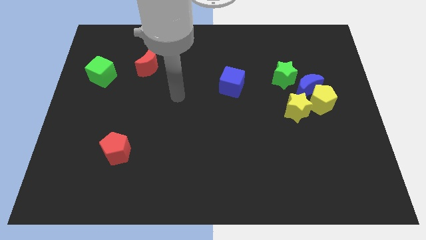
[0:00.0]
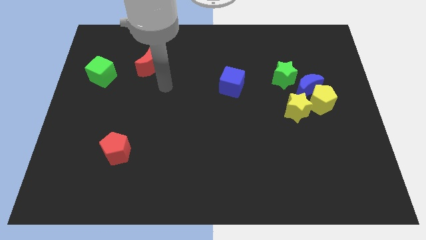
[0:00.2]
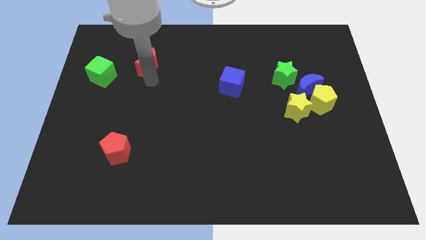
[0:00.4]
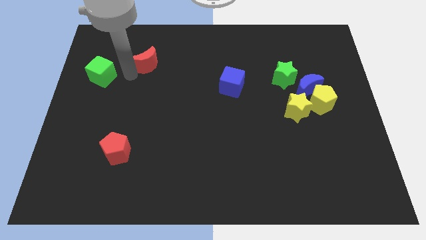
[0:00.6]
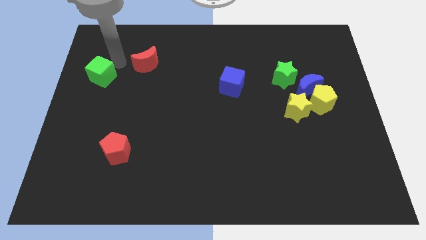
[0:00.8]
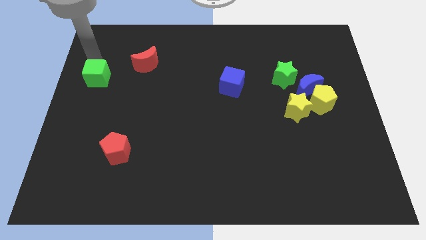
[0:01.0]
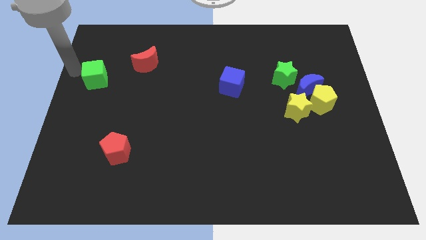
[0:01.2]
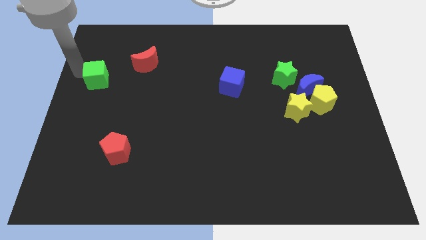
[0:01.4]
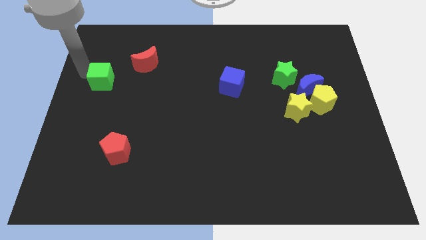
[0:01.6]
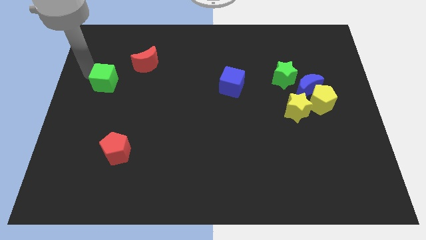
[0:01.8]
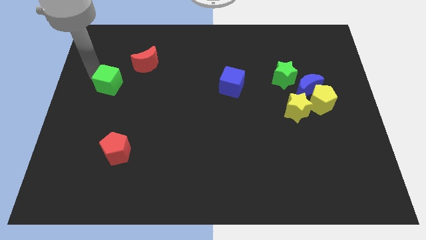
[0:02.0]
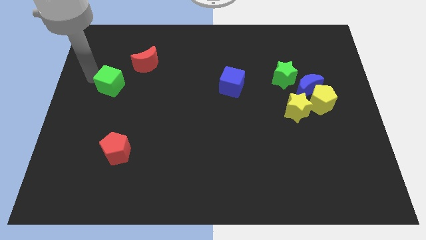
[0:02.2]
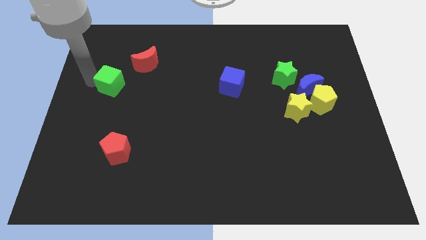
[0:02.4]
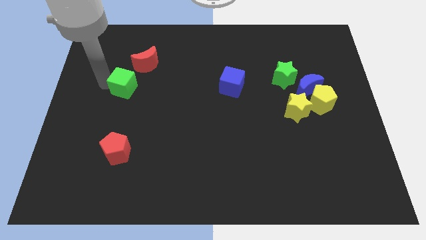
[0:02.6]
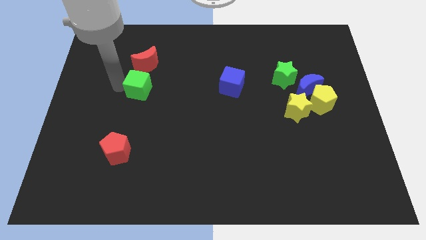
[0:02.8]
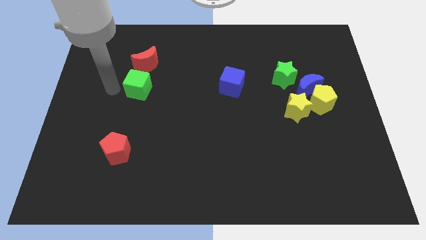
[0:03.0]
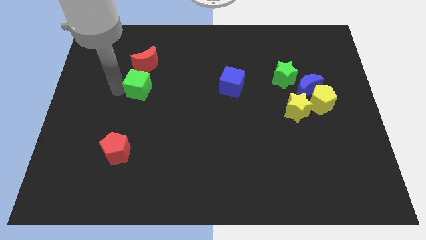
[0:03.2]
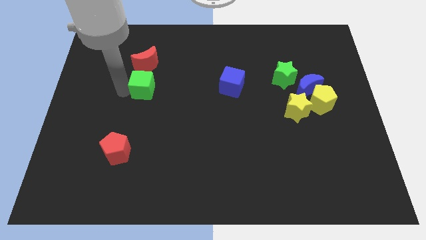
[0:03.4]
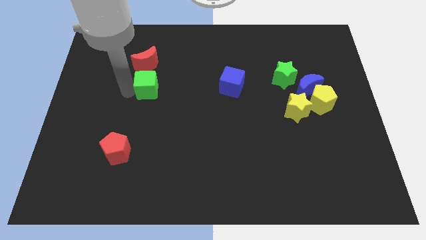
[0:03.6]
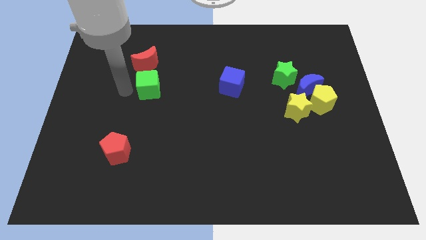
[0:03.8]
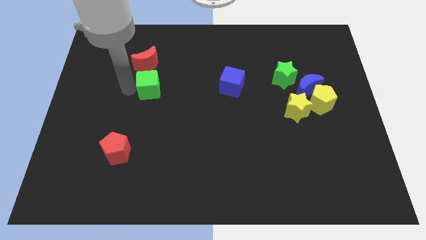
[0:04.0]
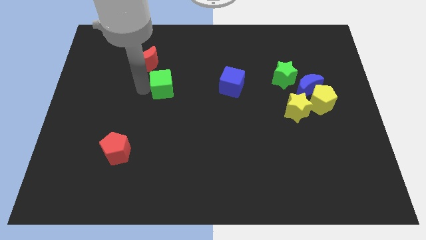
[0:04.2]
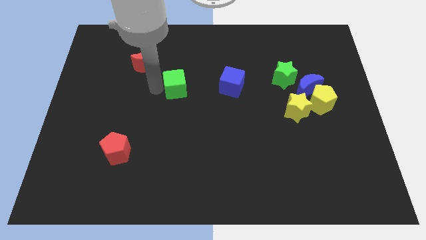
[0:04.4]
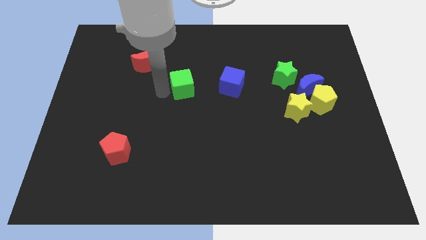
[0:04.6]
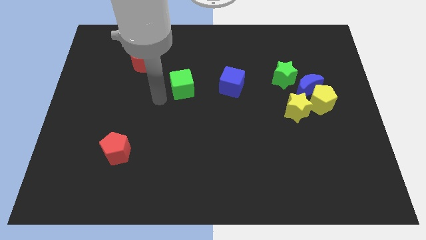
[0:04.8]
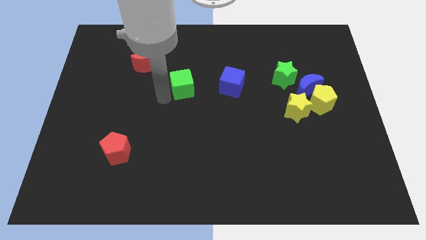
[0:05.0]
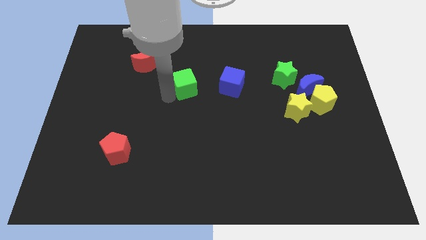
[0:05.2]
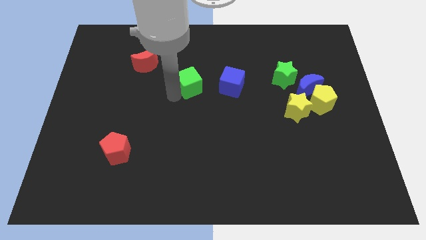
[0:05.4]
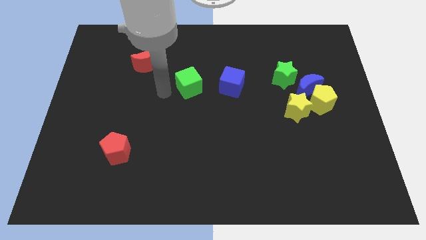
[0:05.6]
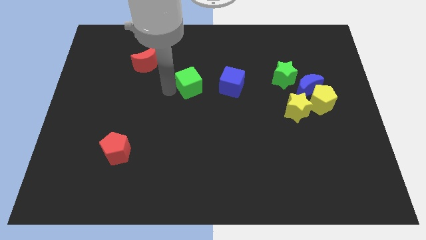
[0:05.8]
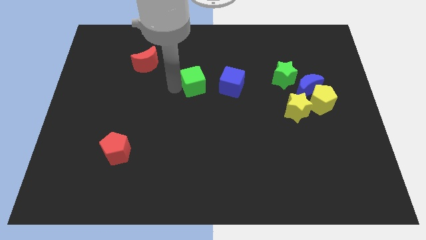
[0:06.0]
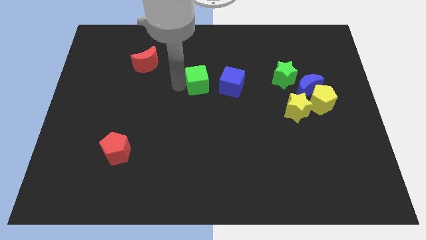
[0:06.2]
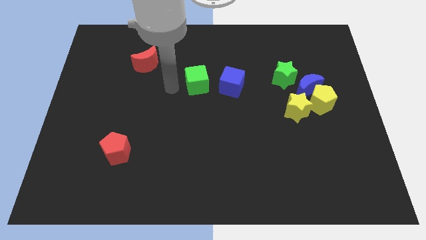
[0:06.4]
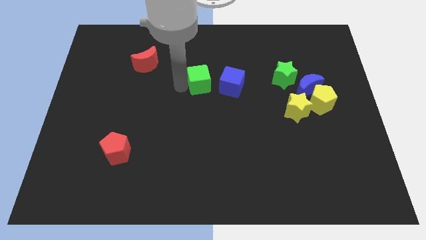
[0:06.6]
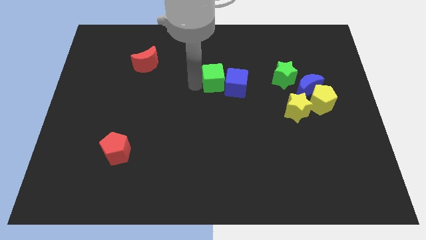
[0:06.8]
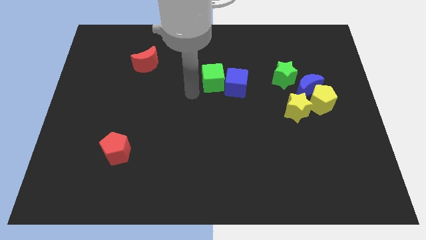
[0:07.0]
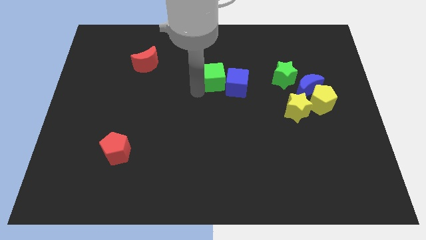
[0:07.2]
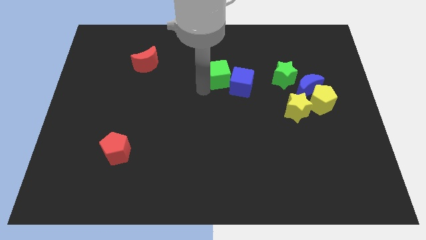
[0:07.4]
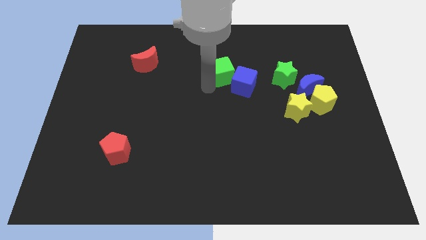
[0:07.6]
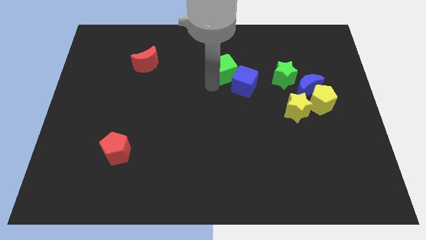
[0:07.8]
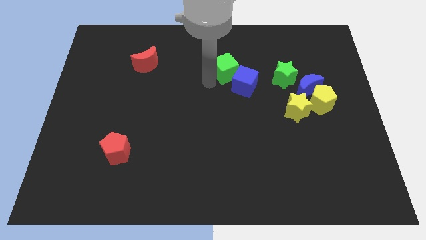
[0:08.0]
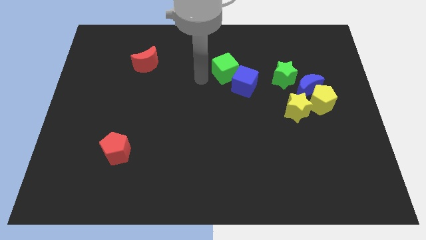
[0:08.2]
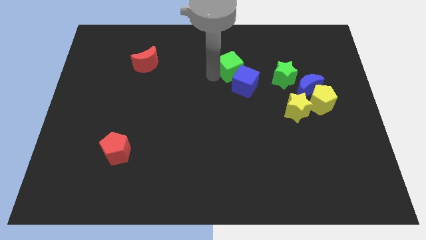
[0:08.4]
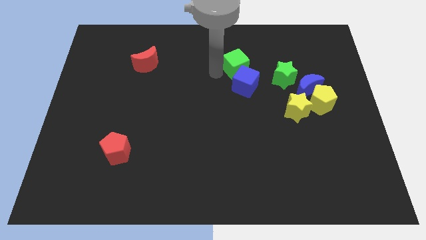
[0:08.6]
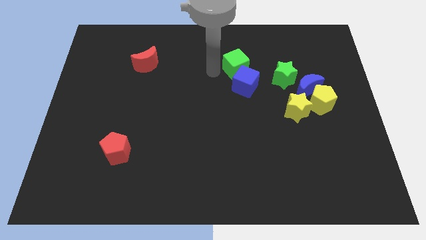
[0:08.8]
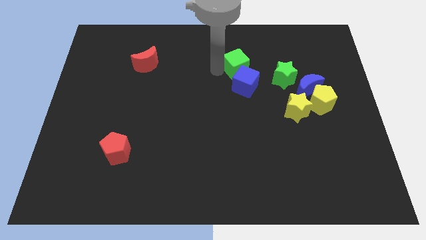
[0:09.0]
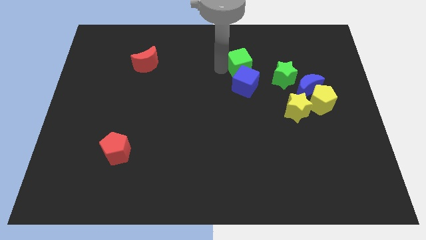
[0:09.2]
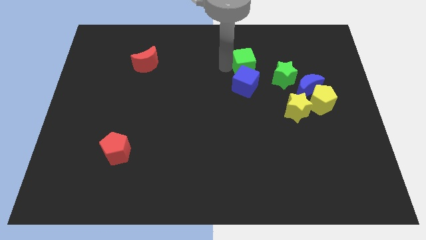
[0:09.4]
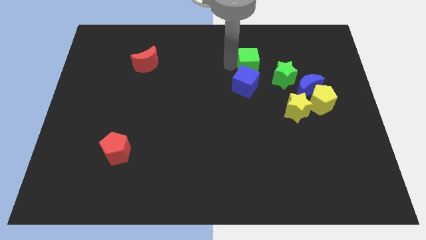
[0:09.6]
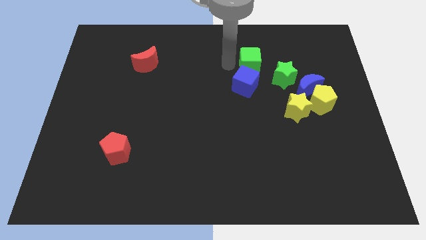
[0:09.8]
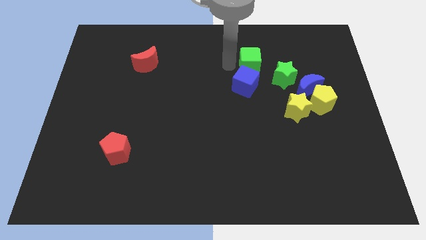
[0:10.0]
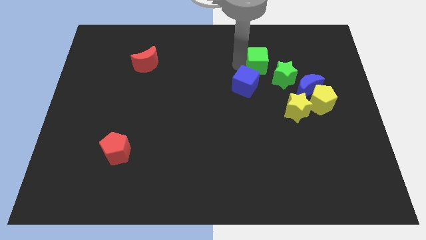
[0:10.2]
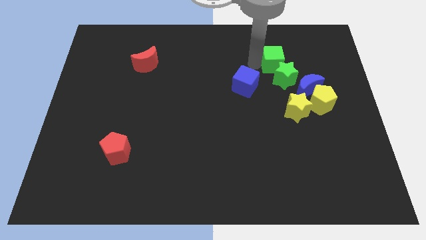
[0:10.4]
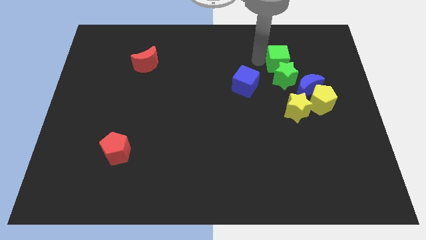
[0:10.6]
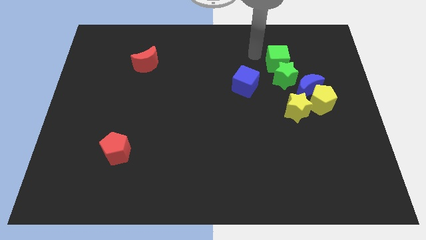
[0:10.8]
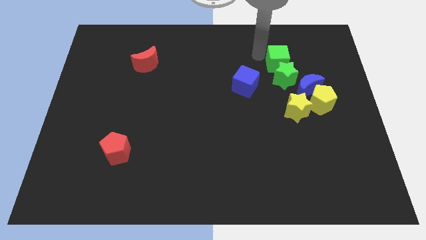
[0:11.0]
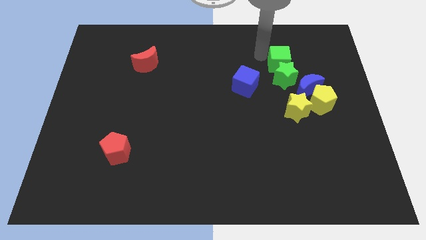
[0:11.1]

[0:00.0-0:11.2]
put the green cube to the top of the yellow star

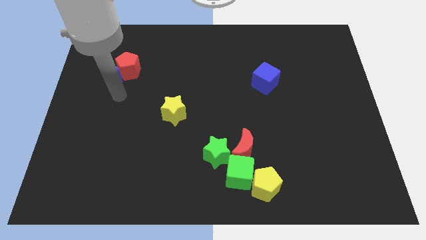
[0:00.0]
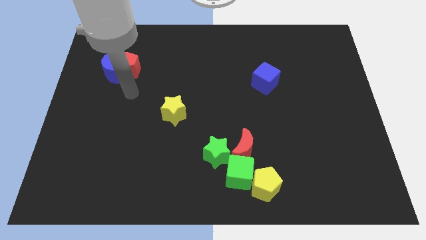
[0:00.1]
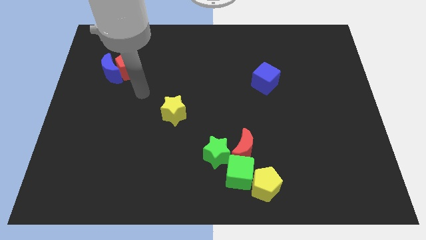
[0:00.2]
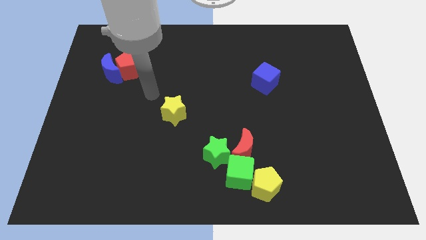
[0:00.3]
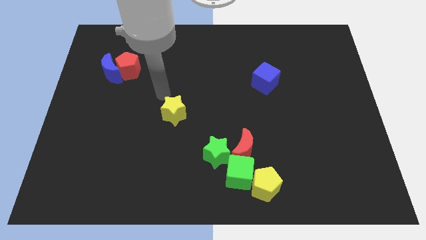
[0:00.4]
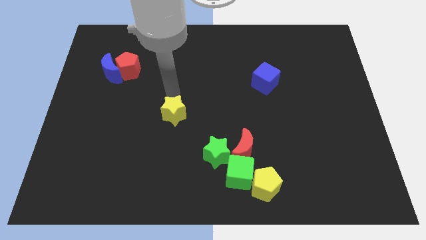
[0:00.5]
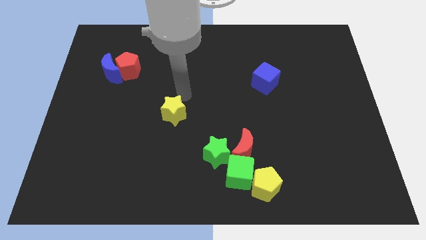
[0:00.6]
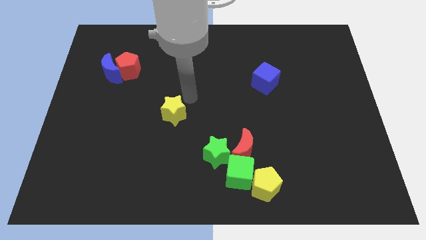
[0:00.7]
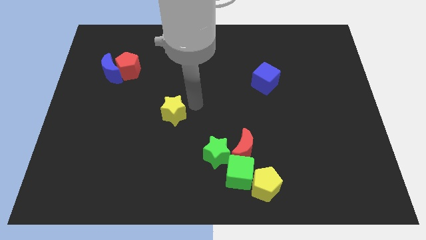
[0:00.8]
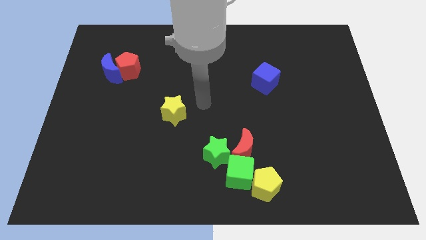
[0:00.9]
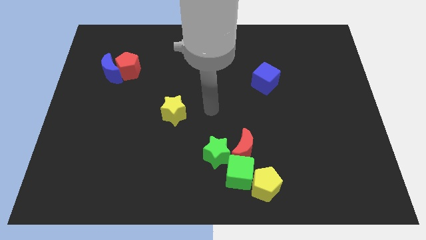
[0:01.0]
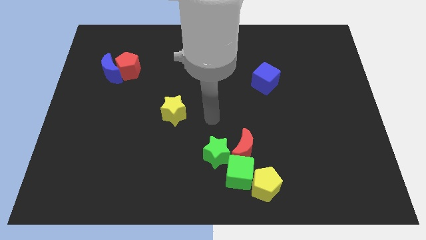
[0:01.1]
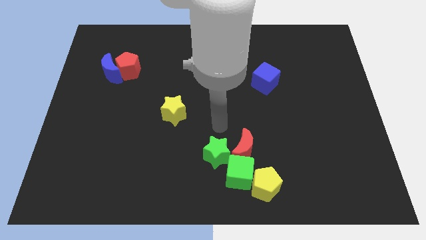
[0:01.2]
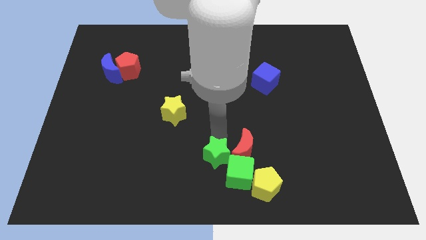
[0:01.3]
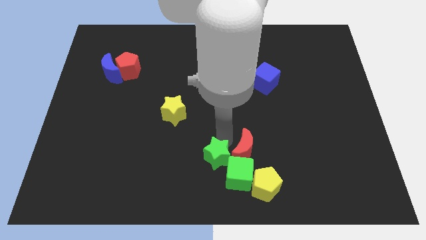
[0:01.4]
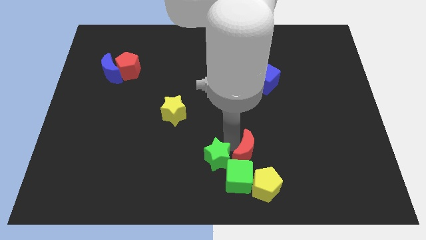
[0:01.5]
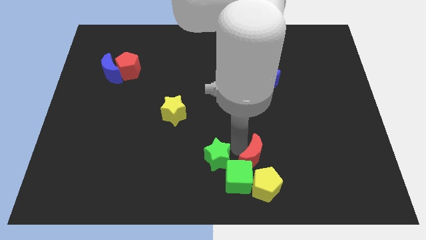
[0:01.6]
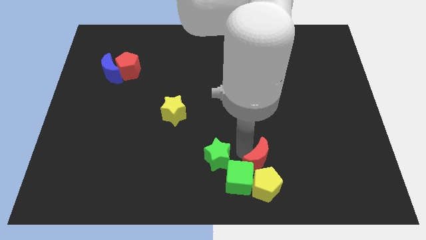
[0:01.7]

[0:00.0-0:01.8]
push the red moon to the right of the green cube
